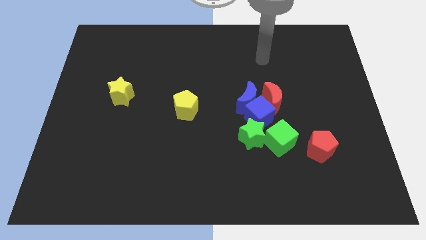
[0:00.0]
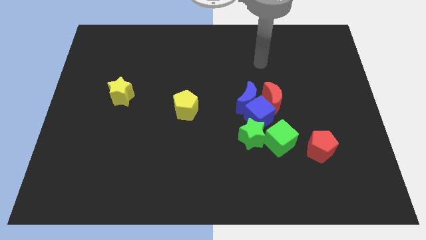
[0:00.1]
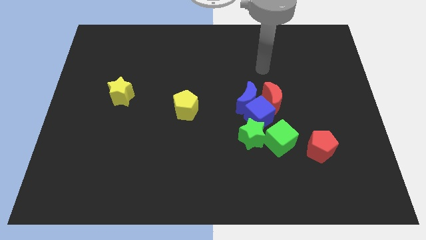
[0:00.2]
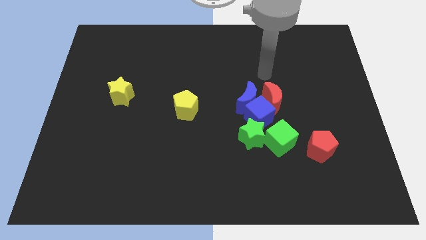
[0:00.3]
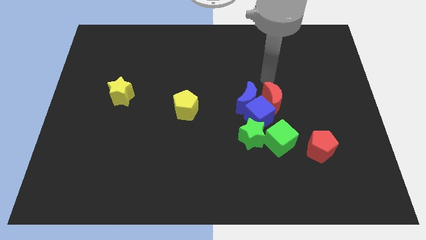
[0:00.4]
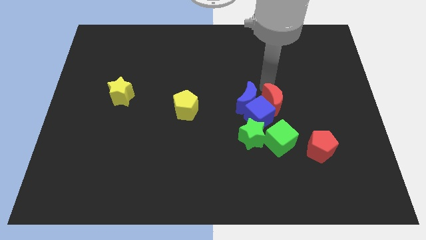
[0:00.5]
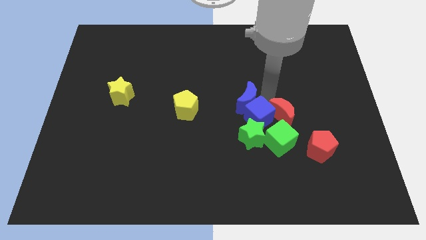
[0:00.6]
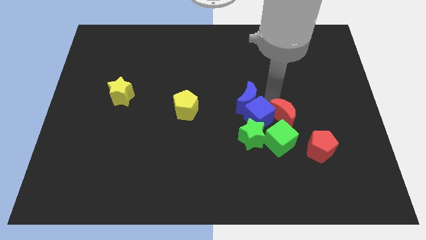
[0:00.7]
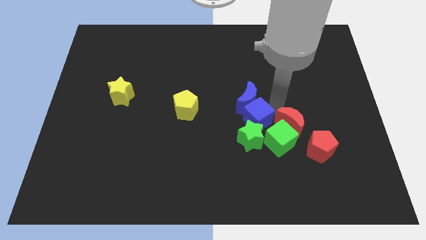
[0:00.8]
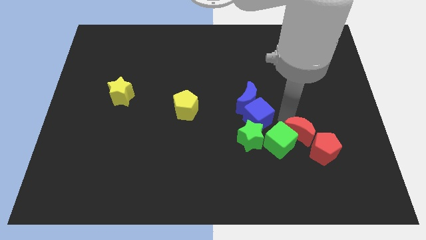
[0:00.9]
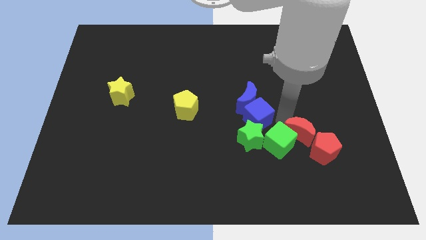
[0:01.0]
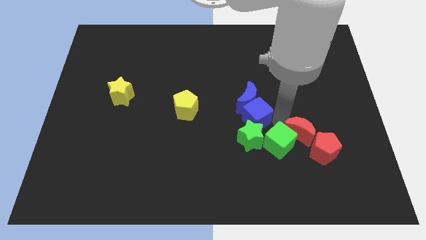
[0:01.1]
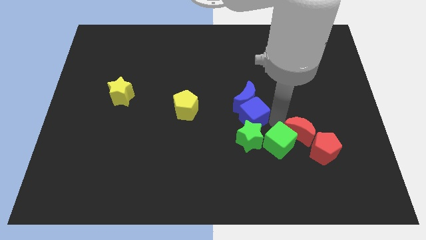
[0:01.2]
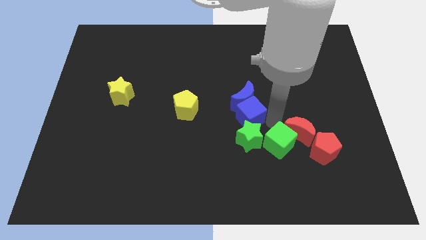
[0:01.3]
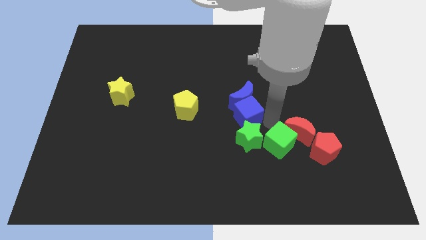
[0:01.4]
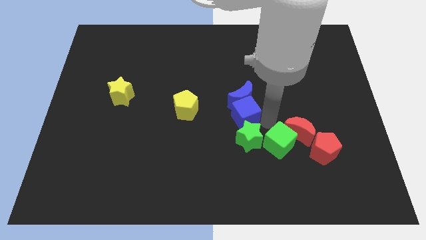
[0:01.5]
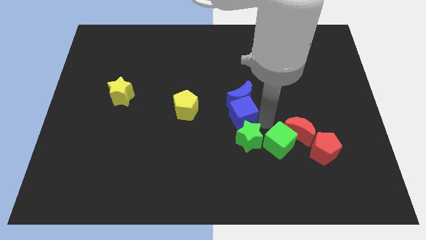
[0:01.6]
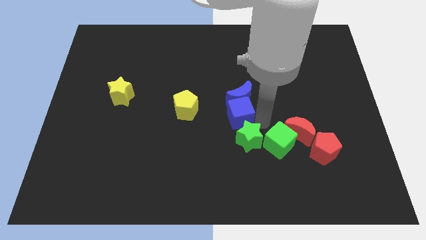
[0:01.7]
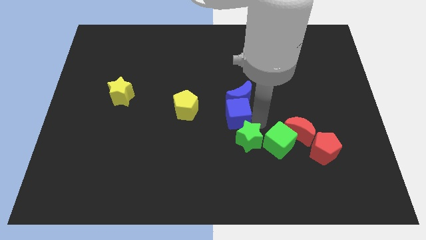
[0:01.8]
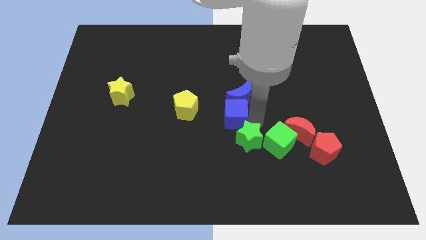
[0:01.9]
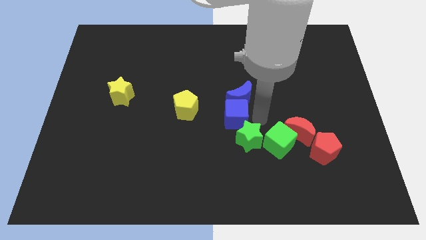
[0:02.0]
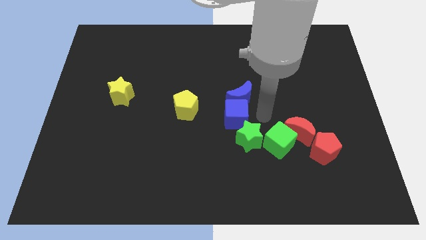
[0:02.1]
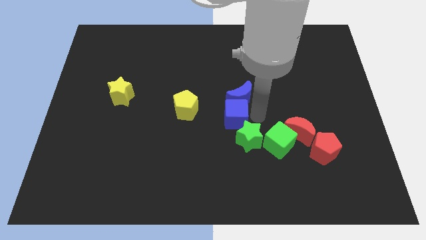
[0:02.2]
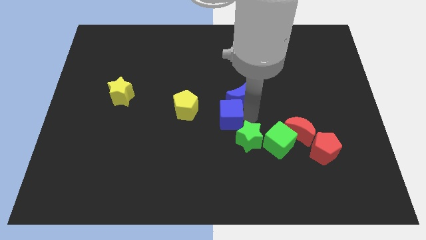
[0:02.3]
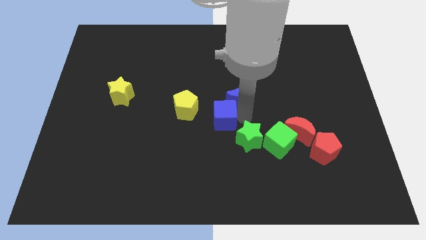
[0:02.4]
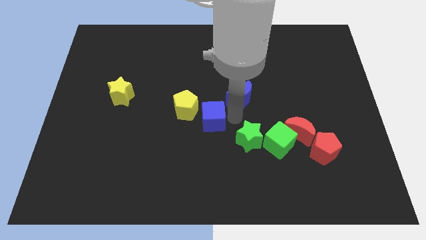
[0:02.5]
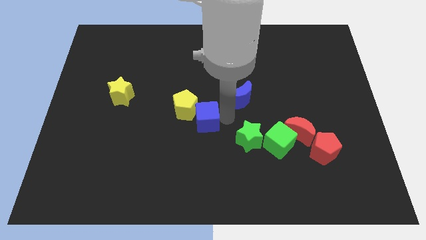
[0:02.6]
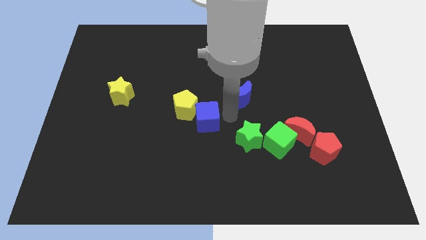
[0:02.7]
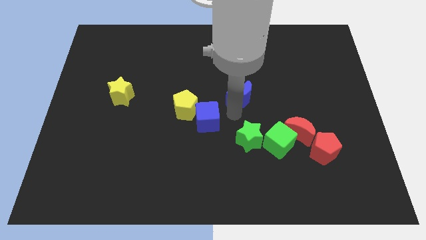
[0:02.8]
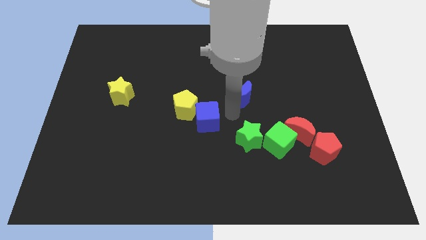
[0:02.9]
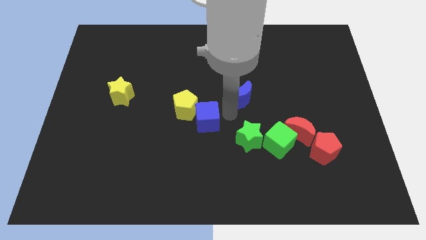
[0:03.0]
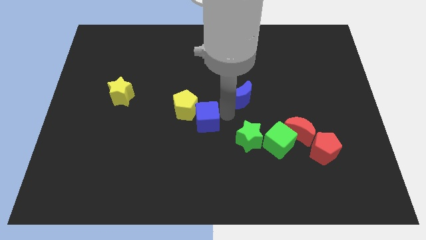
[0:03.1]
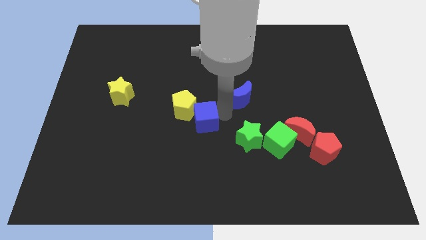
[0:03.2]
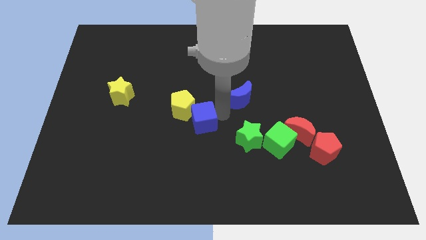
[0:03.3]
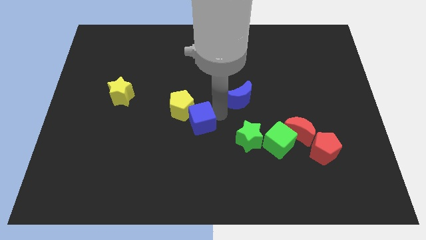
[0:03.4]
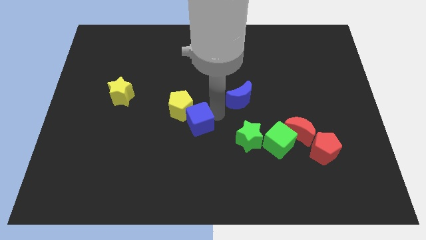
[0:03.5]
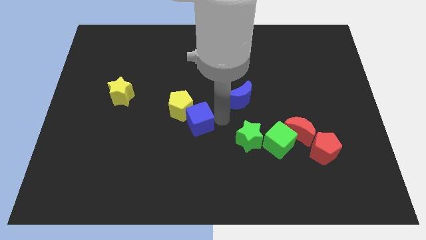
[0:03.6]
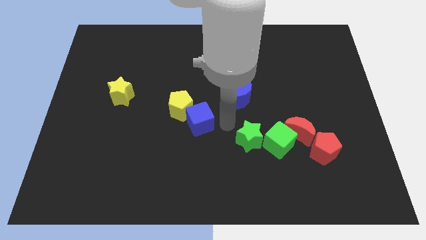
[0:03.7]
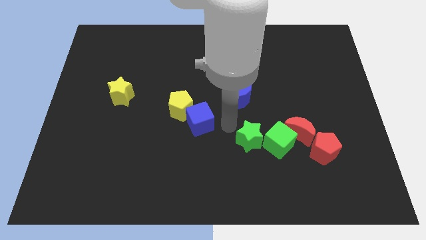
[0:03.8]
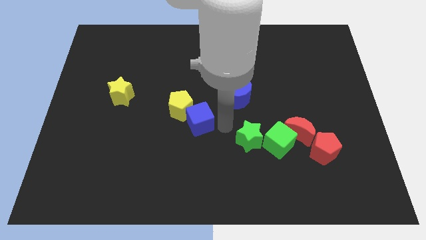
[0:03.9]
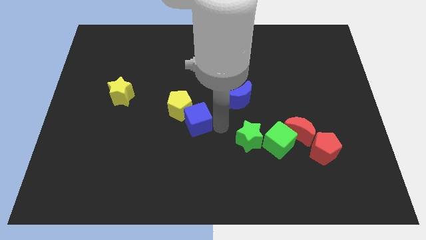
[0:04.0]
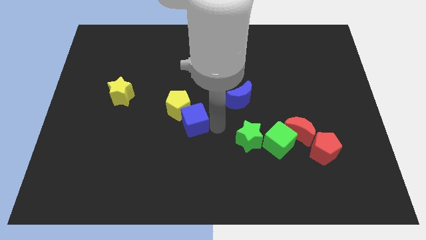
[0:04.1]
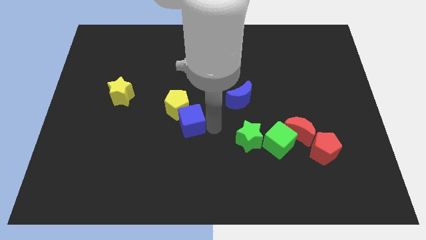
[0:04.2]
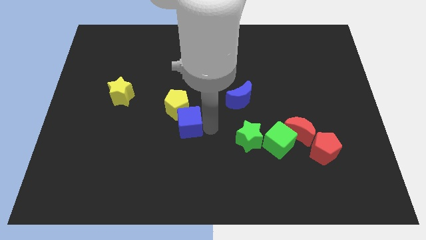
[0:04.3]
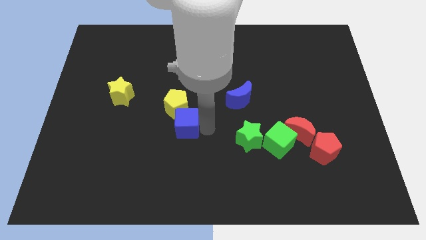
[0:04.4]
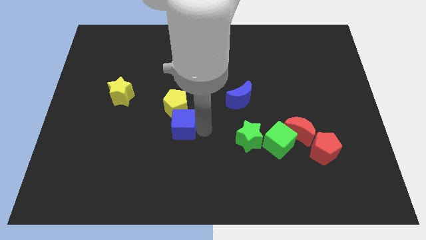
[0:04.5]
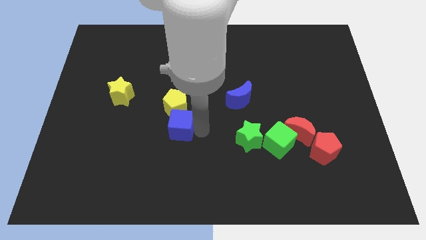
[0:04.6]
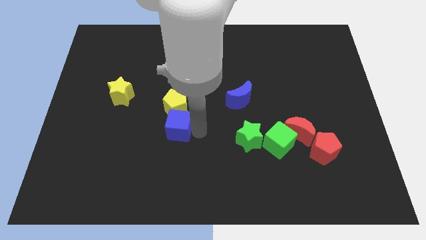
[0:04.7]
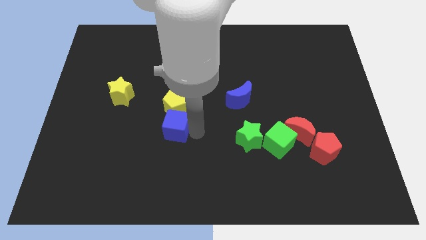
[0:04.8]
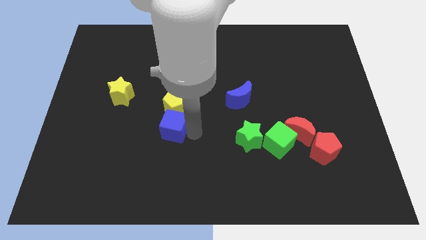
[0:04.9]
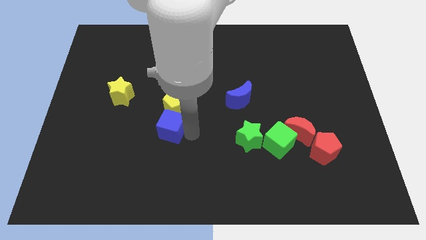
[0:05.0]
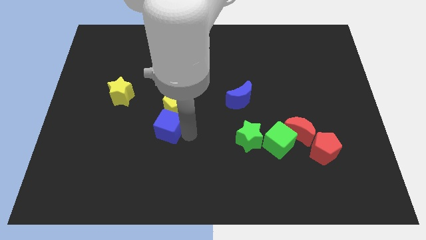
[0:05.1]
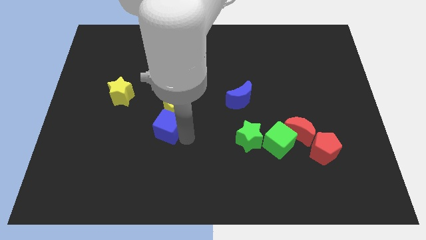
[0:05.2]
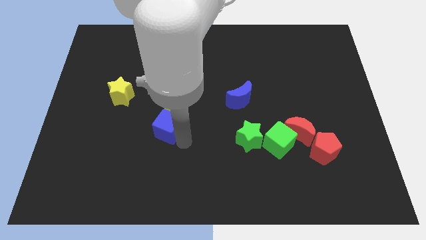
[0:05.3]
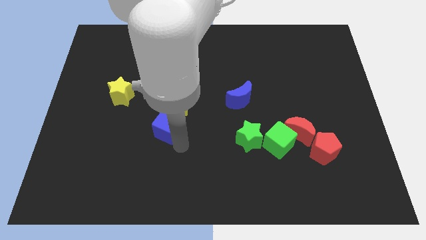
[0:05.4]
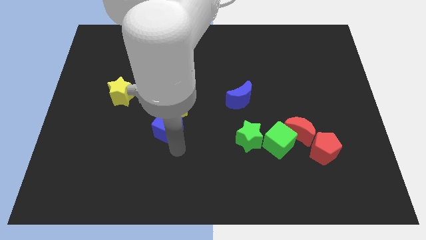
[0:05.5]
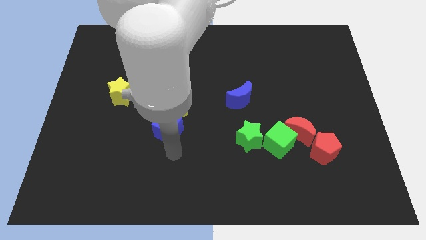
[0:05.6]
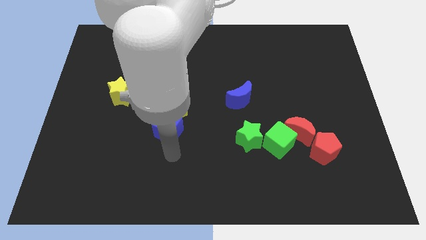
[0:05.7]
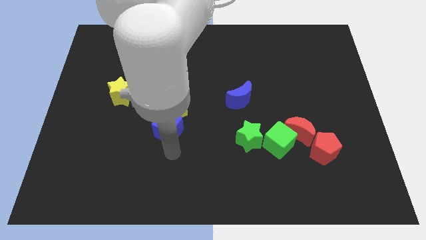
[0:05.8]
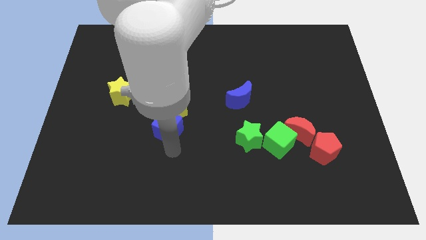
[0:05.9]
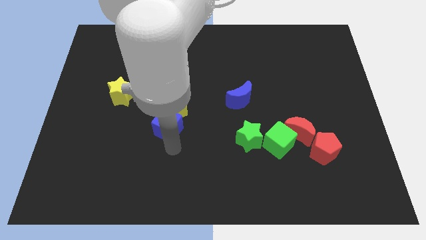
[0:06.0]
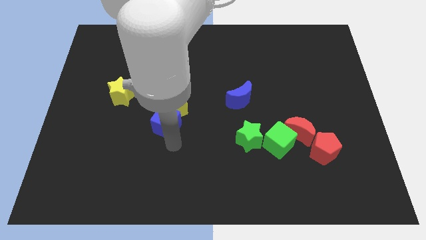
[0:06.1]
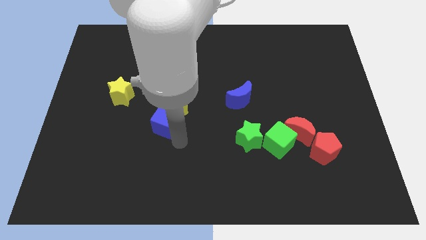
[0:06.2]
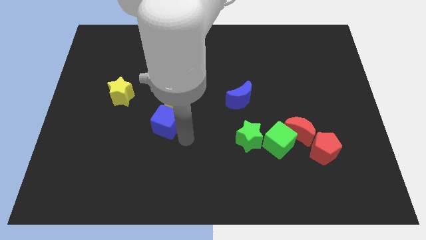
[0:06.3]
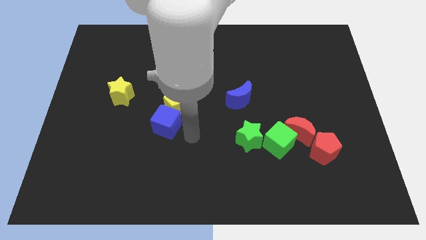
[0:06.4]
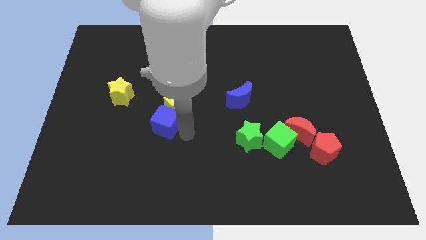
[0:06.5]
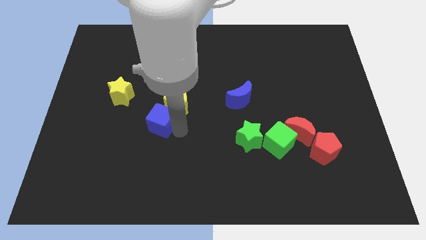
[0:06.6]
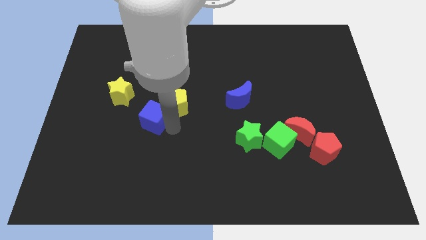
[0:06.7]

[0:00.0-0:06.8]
move the blue cube diagonally down and to the right of the yellow star
